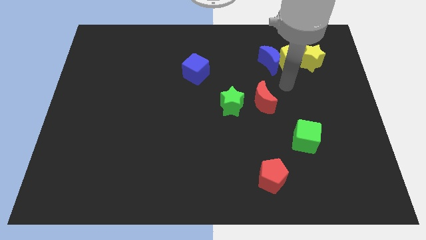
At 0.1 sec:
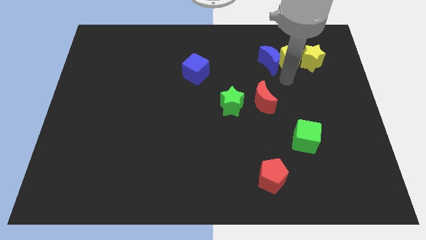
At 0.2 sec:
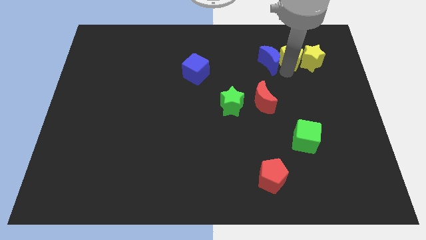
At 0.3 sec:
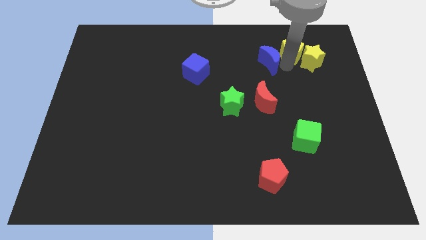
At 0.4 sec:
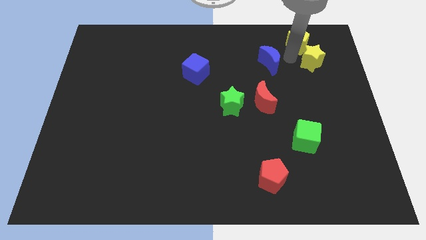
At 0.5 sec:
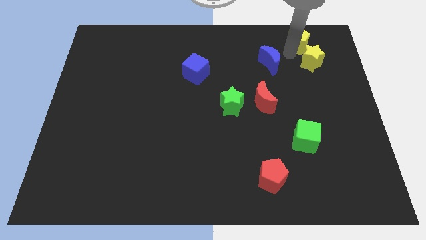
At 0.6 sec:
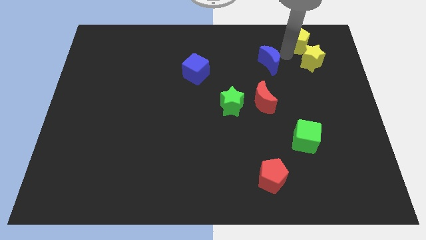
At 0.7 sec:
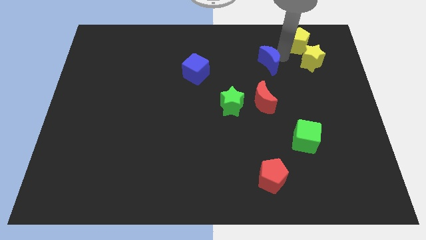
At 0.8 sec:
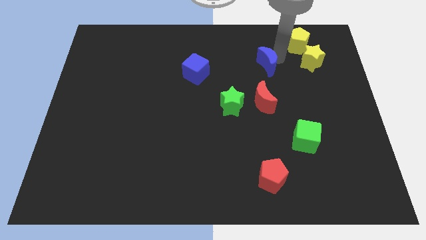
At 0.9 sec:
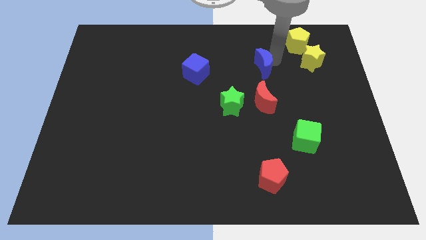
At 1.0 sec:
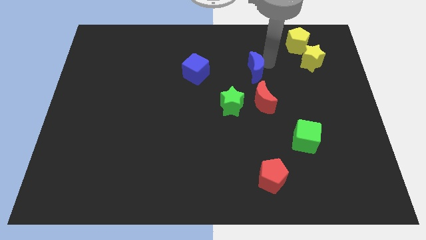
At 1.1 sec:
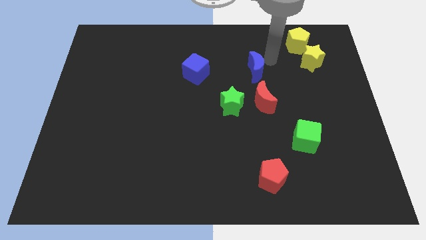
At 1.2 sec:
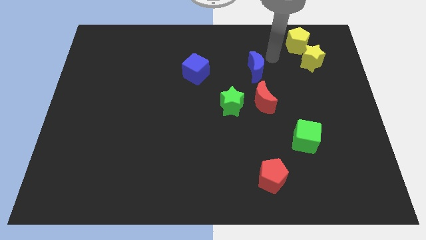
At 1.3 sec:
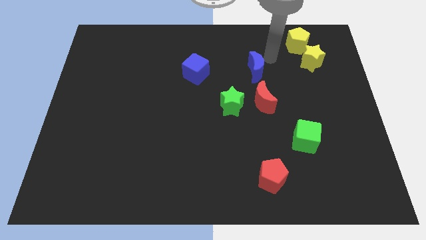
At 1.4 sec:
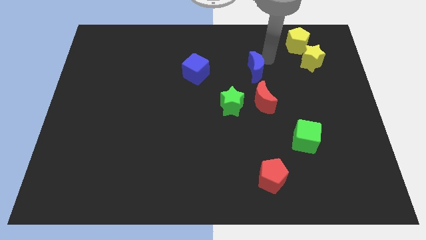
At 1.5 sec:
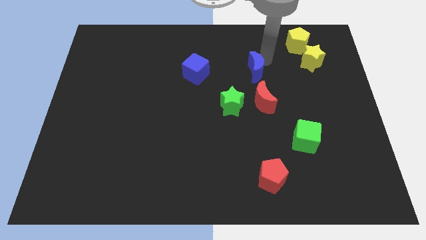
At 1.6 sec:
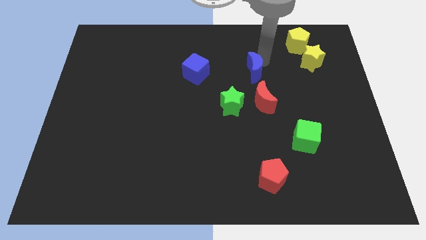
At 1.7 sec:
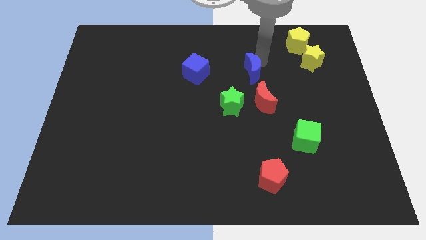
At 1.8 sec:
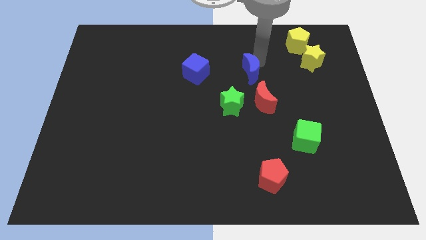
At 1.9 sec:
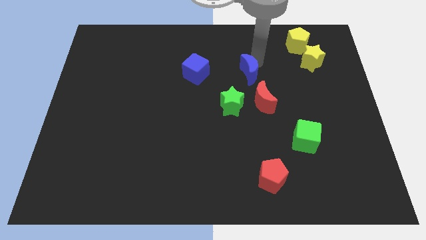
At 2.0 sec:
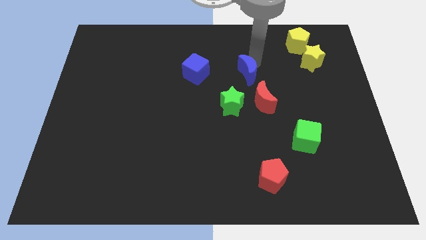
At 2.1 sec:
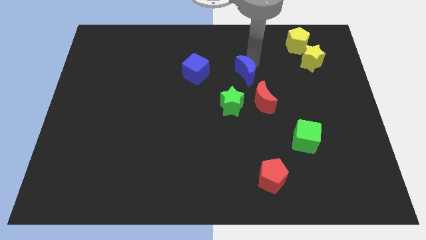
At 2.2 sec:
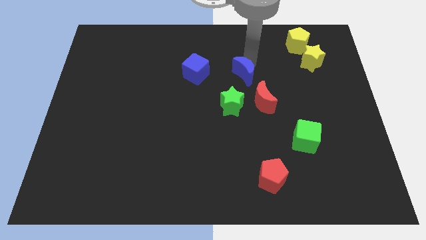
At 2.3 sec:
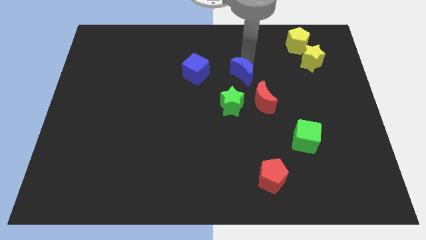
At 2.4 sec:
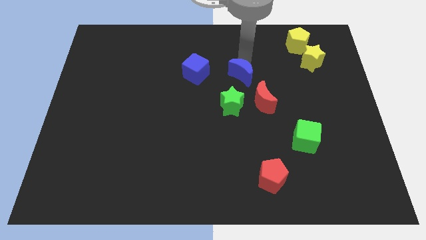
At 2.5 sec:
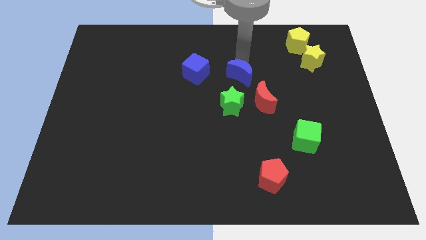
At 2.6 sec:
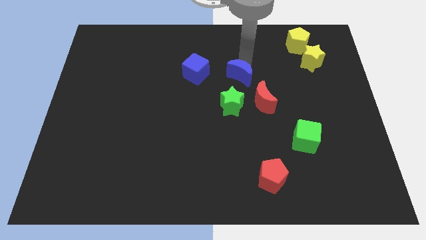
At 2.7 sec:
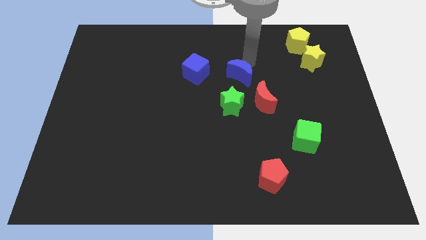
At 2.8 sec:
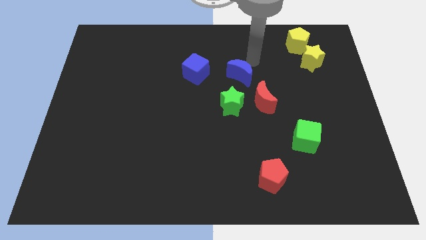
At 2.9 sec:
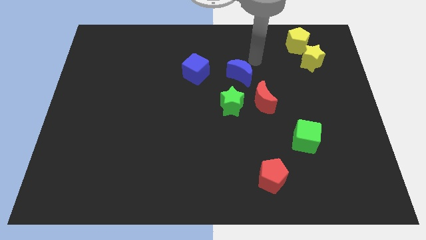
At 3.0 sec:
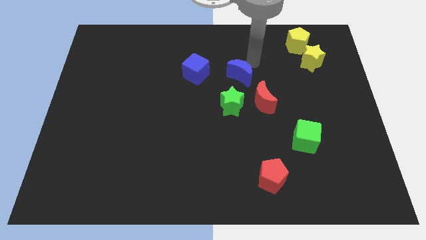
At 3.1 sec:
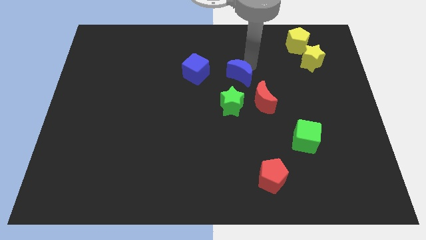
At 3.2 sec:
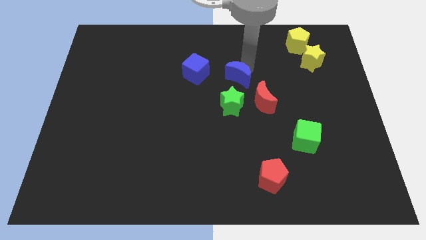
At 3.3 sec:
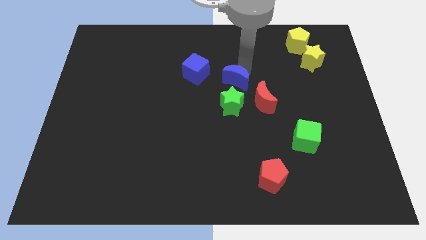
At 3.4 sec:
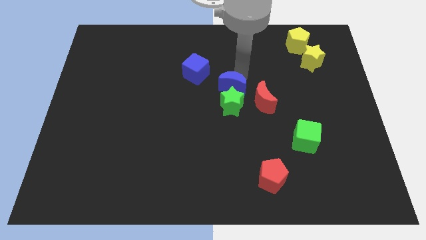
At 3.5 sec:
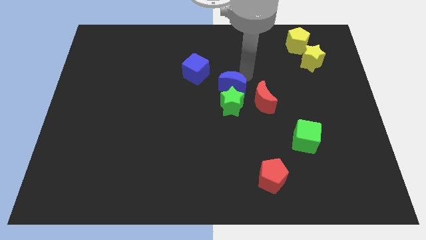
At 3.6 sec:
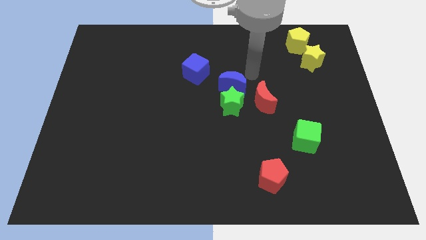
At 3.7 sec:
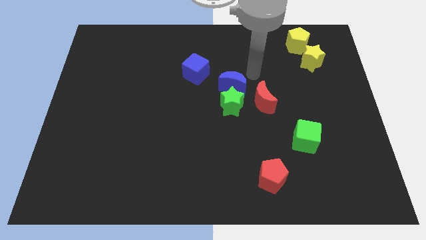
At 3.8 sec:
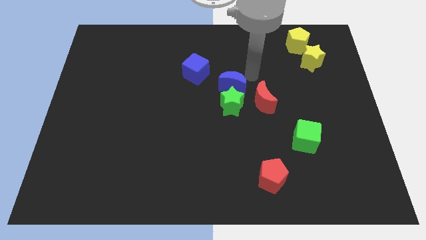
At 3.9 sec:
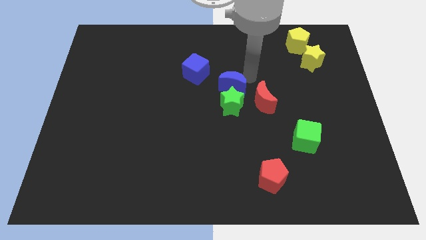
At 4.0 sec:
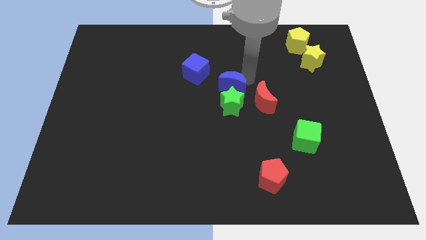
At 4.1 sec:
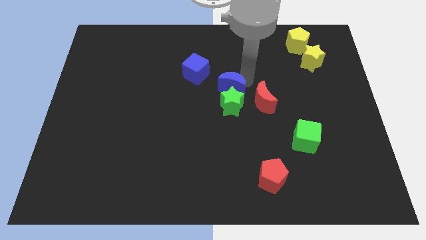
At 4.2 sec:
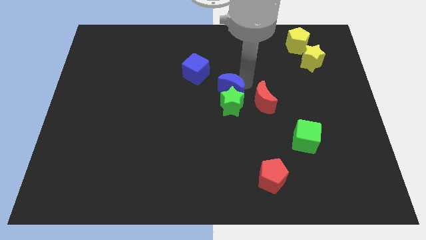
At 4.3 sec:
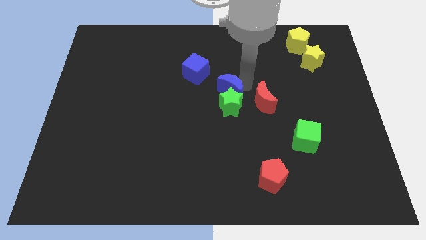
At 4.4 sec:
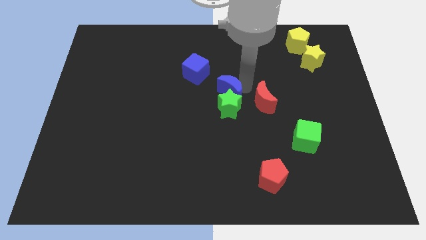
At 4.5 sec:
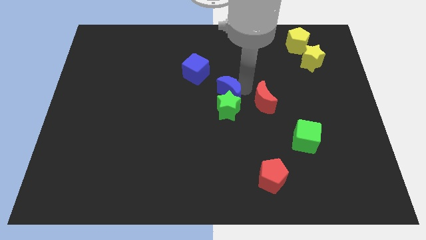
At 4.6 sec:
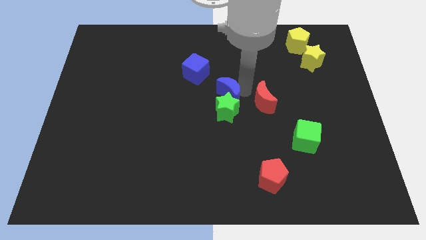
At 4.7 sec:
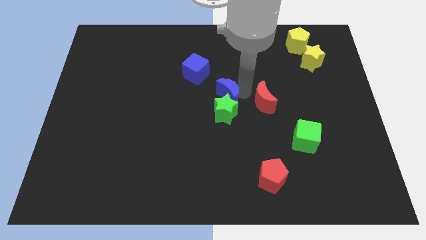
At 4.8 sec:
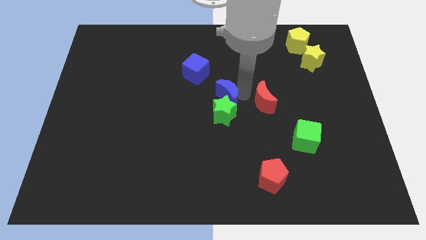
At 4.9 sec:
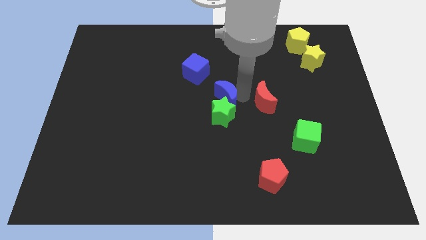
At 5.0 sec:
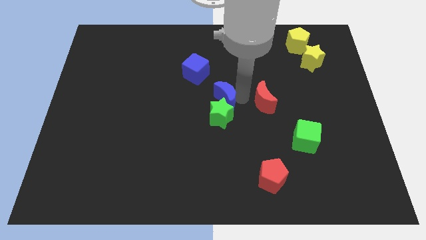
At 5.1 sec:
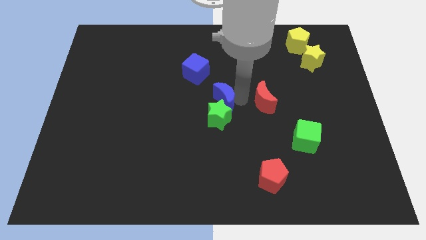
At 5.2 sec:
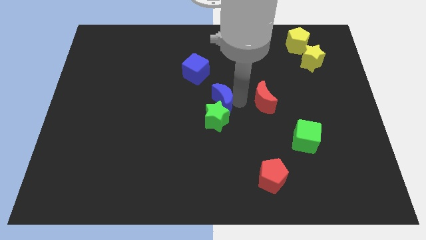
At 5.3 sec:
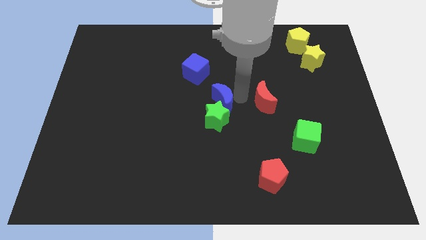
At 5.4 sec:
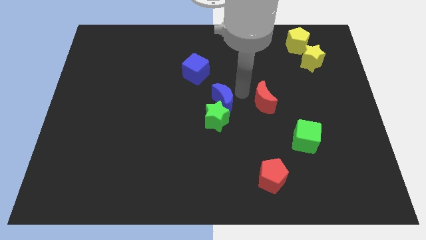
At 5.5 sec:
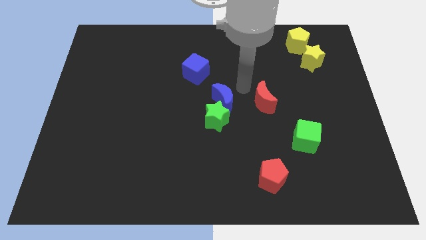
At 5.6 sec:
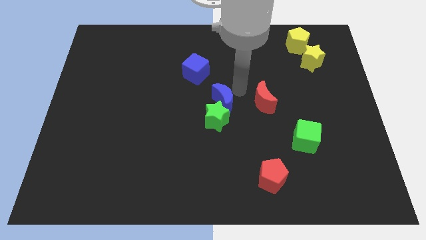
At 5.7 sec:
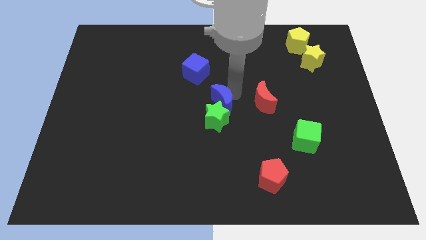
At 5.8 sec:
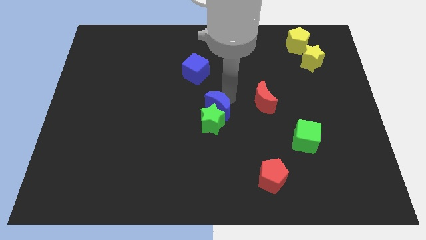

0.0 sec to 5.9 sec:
push the blue moon down and left

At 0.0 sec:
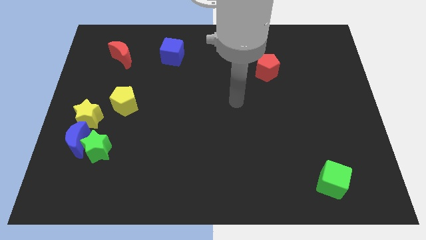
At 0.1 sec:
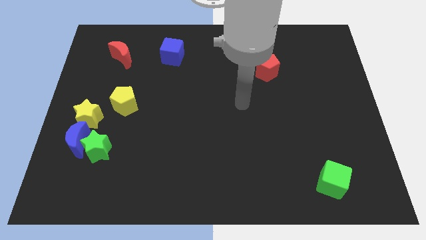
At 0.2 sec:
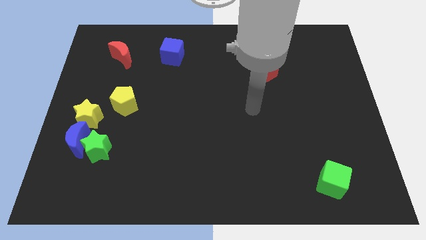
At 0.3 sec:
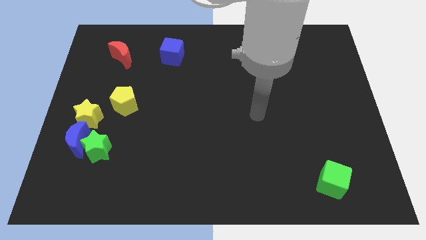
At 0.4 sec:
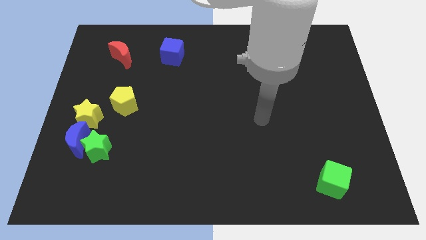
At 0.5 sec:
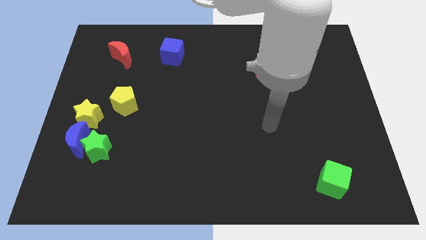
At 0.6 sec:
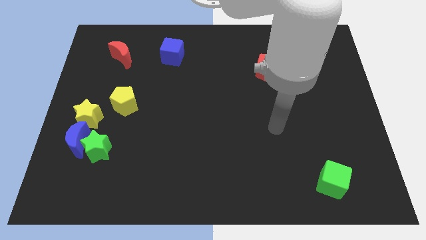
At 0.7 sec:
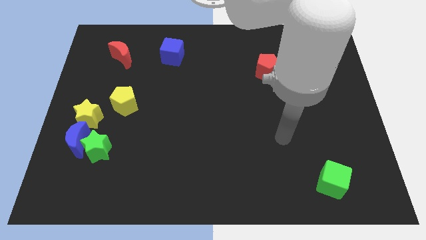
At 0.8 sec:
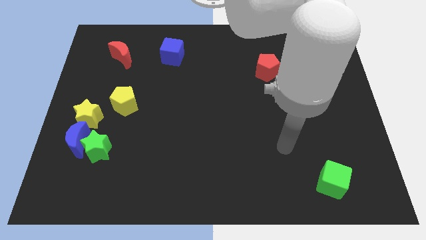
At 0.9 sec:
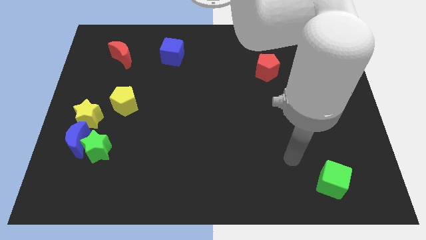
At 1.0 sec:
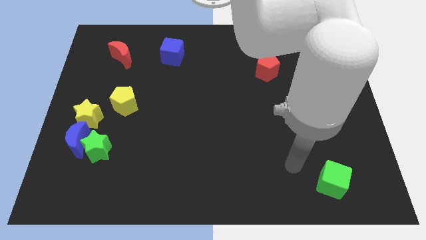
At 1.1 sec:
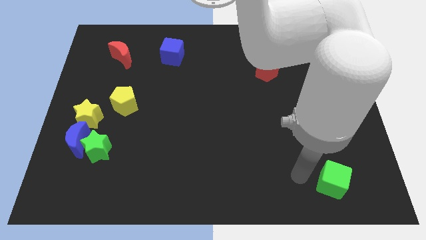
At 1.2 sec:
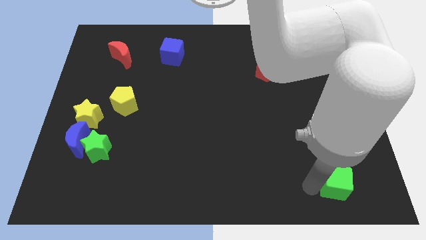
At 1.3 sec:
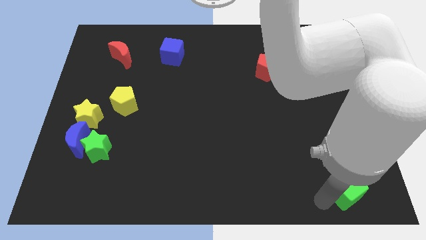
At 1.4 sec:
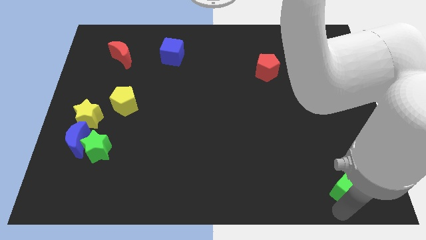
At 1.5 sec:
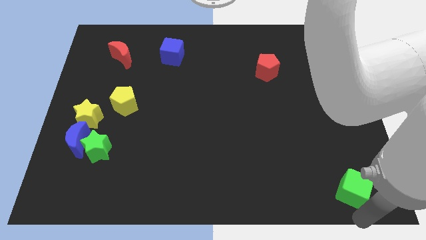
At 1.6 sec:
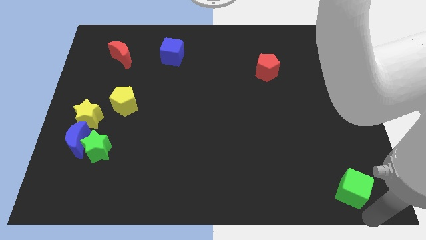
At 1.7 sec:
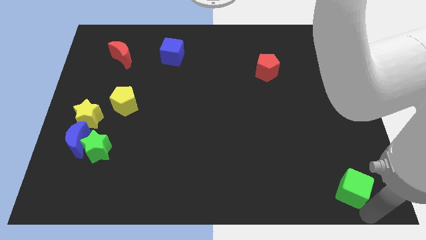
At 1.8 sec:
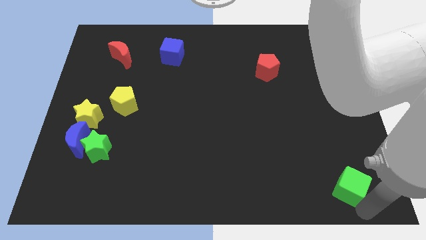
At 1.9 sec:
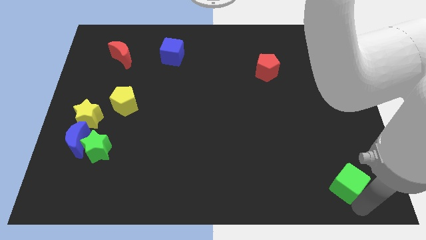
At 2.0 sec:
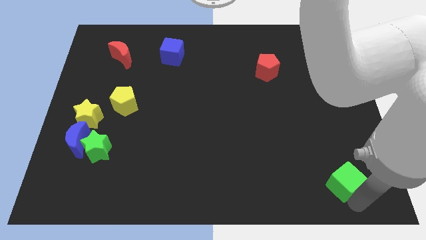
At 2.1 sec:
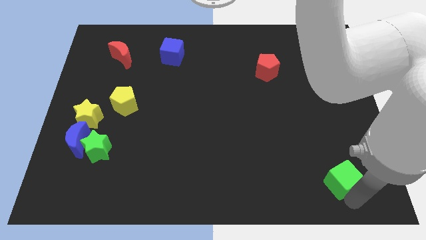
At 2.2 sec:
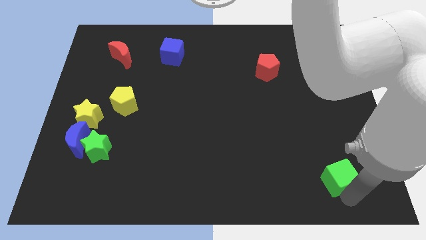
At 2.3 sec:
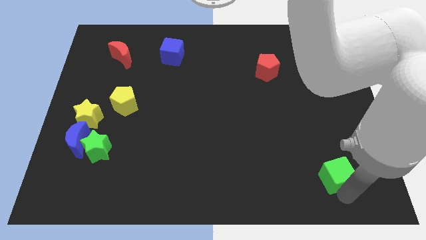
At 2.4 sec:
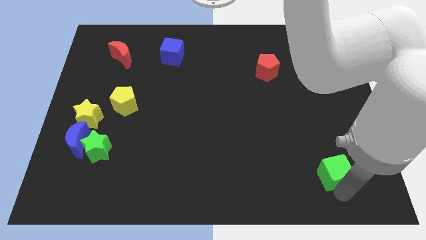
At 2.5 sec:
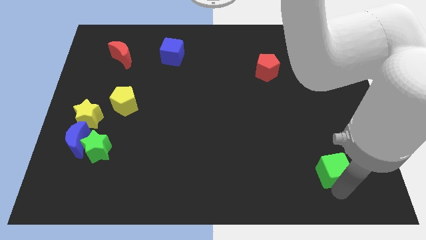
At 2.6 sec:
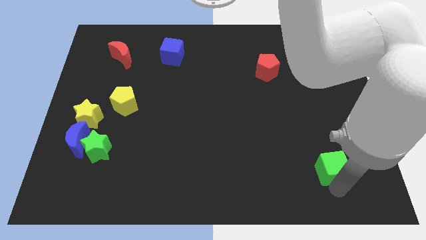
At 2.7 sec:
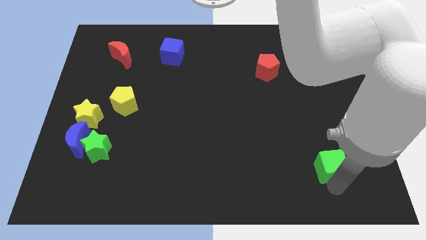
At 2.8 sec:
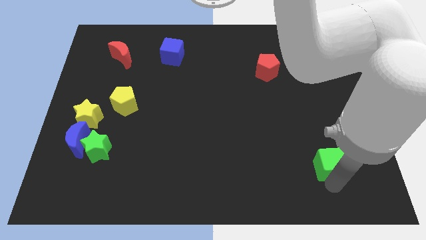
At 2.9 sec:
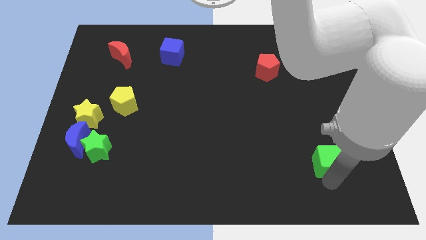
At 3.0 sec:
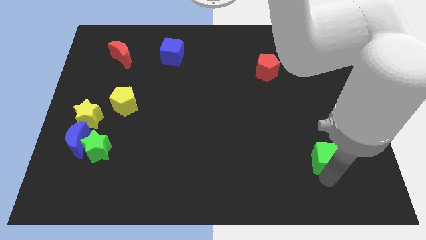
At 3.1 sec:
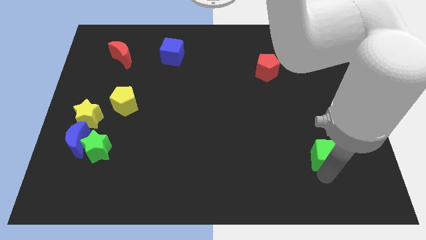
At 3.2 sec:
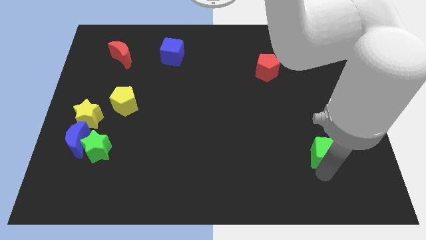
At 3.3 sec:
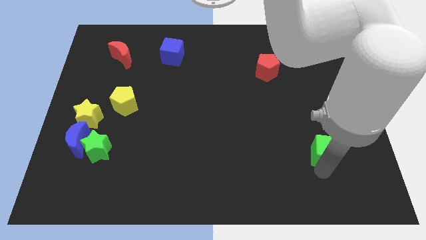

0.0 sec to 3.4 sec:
slightly slide the green cube upwards
